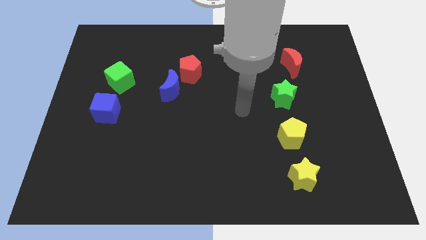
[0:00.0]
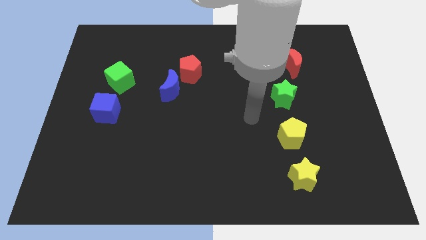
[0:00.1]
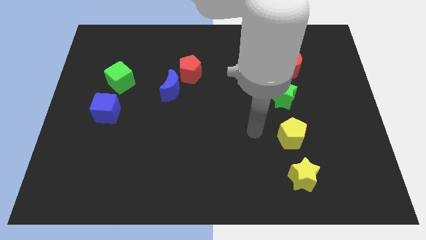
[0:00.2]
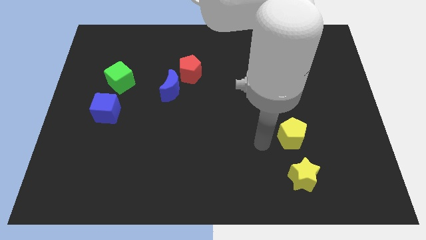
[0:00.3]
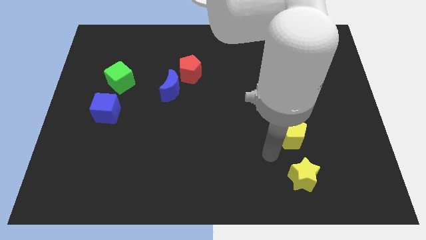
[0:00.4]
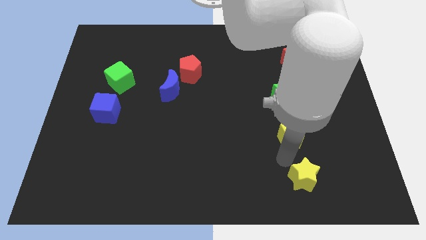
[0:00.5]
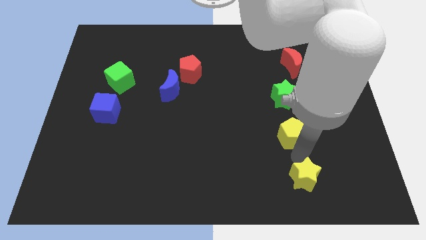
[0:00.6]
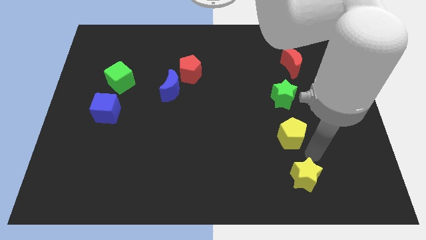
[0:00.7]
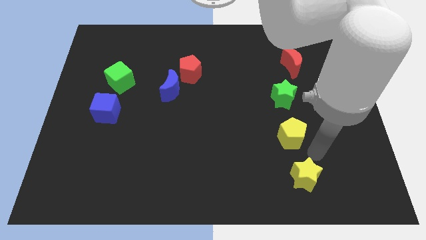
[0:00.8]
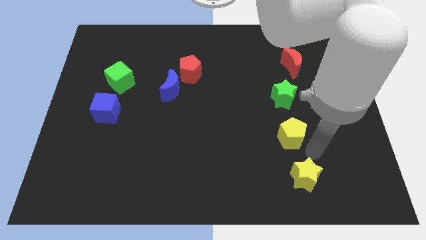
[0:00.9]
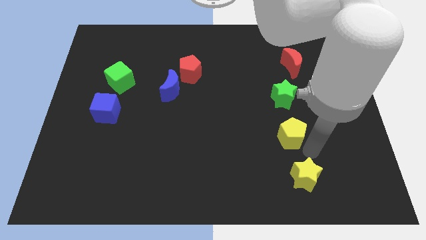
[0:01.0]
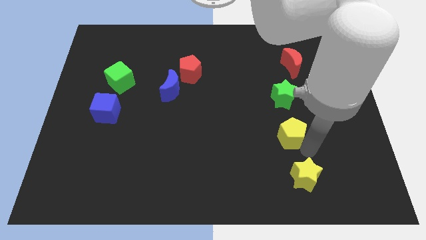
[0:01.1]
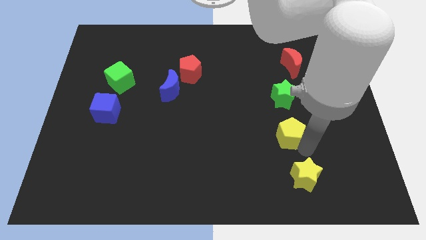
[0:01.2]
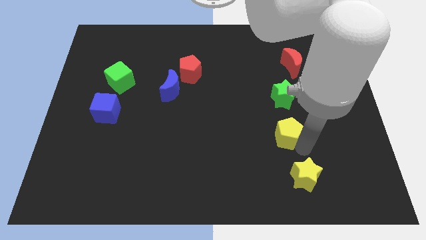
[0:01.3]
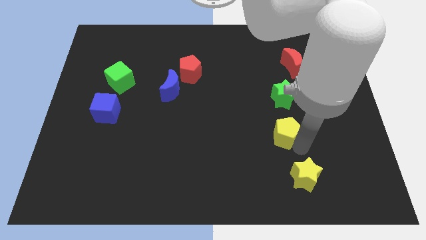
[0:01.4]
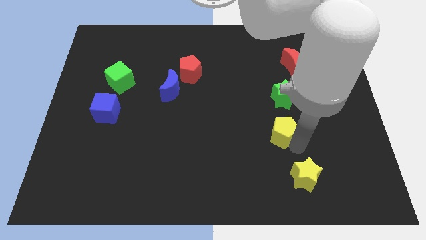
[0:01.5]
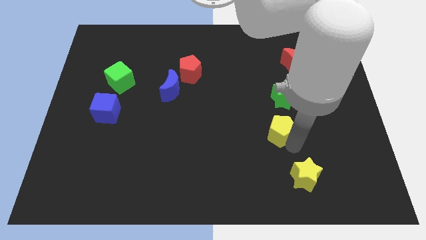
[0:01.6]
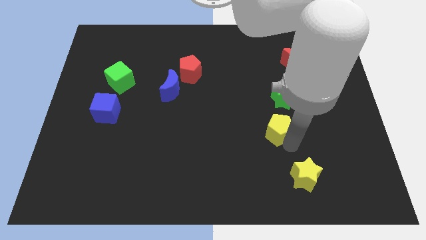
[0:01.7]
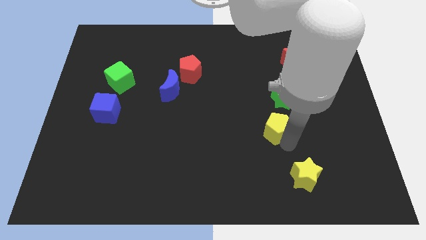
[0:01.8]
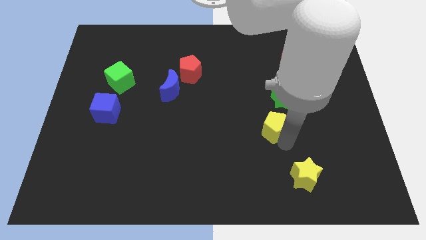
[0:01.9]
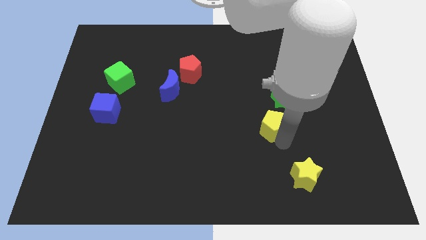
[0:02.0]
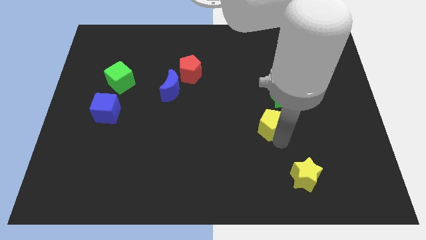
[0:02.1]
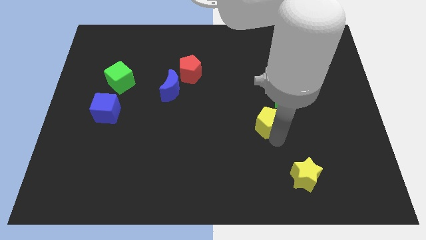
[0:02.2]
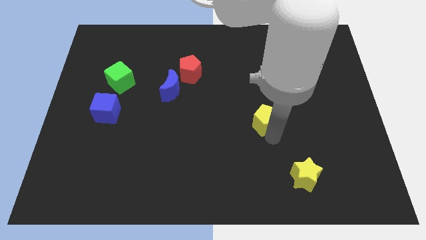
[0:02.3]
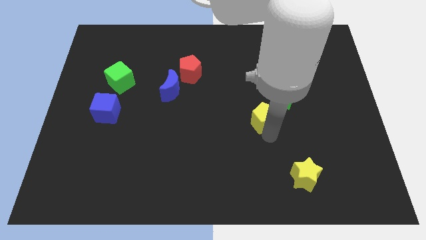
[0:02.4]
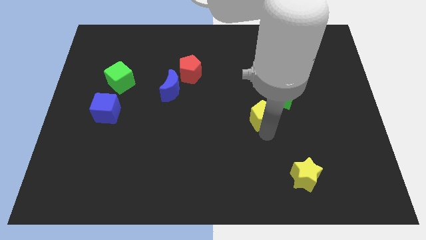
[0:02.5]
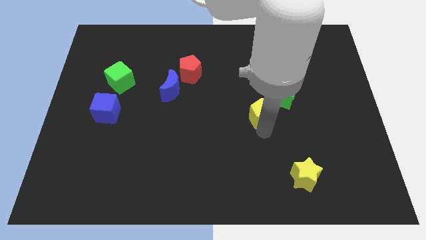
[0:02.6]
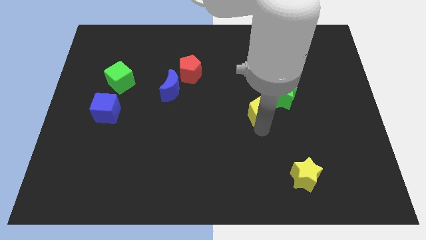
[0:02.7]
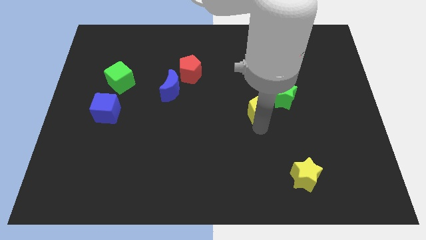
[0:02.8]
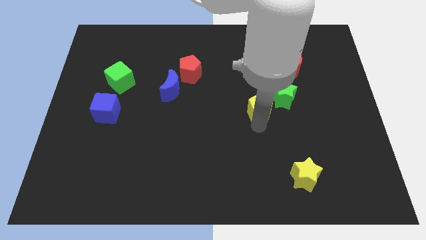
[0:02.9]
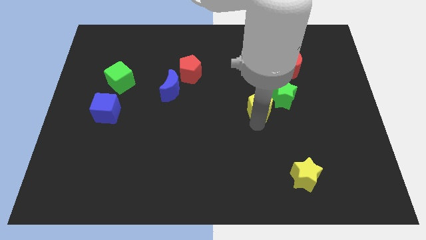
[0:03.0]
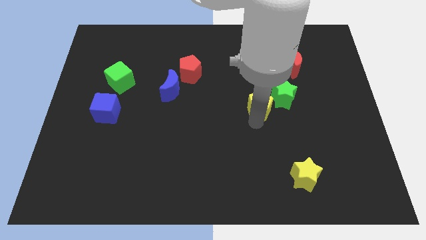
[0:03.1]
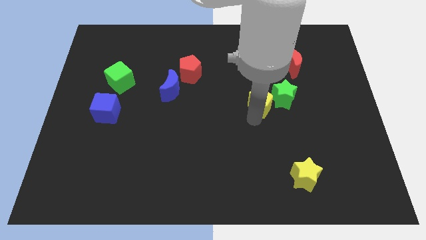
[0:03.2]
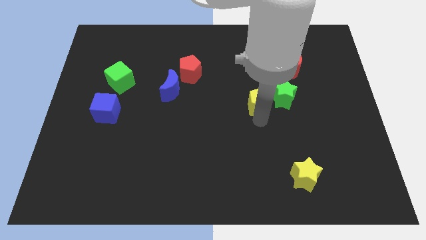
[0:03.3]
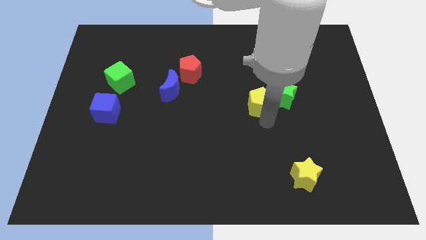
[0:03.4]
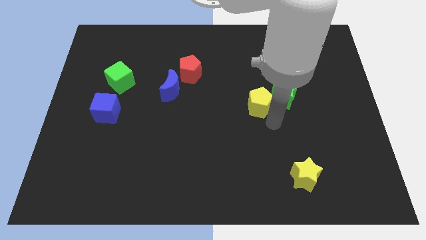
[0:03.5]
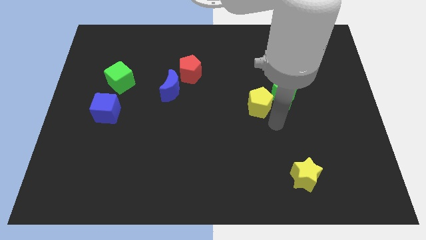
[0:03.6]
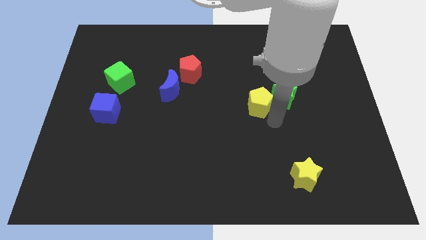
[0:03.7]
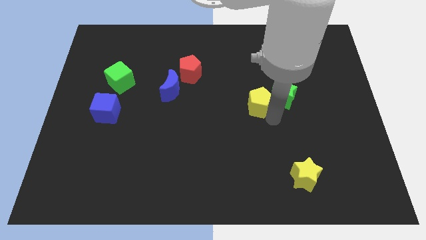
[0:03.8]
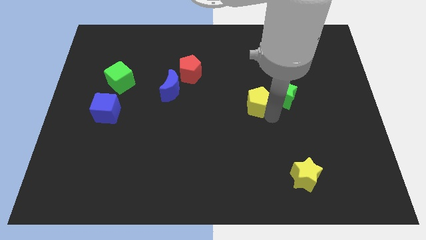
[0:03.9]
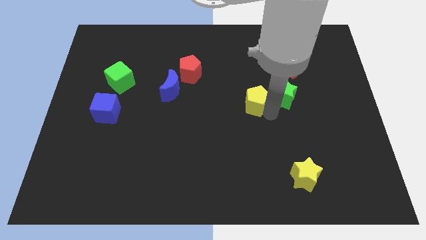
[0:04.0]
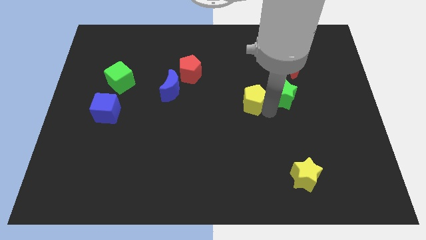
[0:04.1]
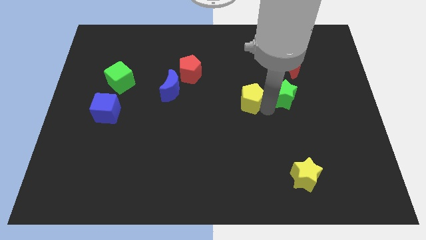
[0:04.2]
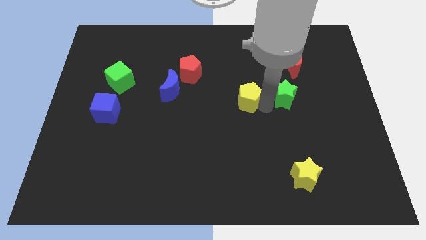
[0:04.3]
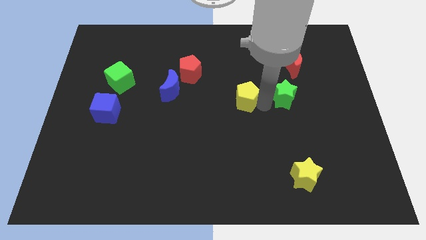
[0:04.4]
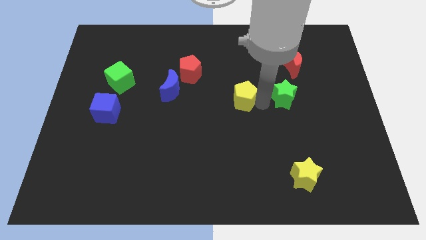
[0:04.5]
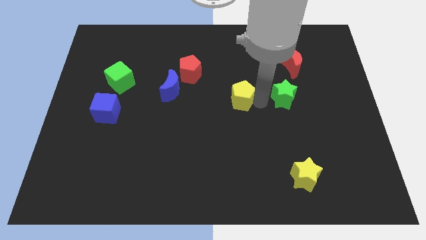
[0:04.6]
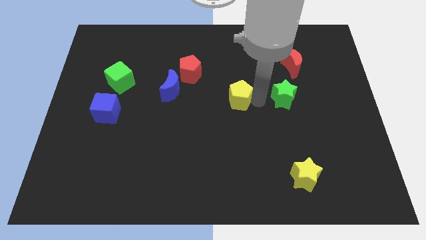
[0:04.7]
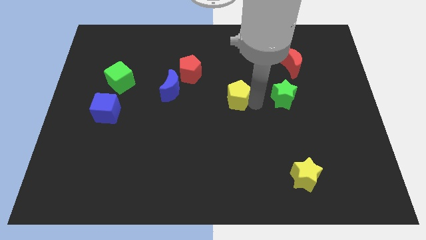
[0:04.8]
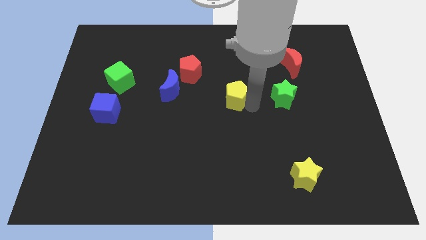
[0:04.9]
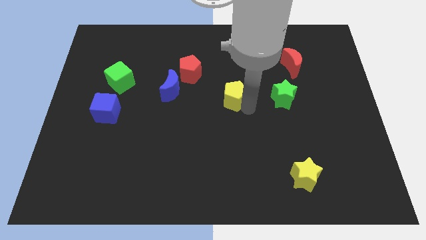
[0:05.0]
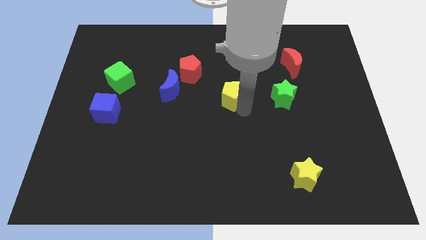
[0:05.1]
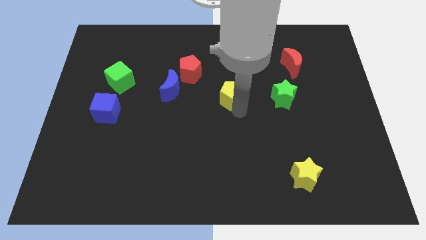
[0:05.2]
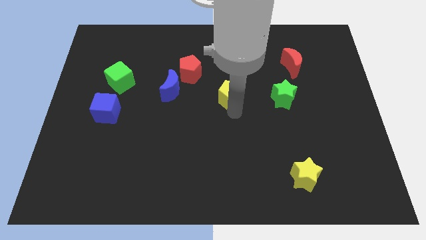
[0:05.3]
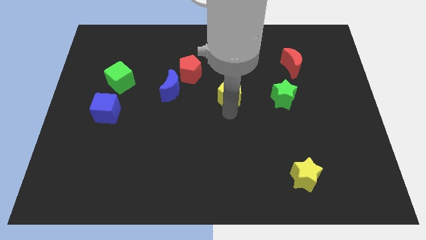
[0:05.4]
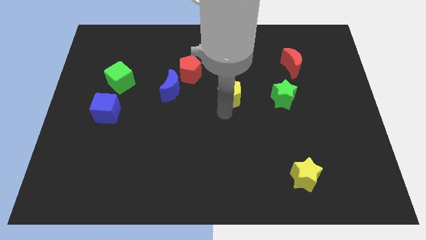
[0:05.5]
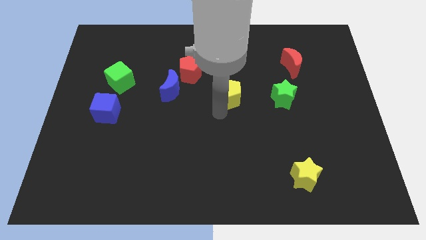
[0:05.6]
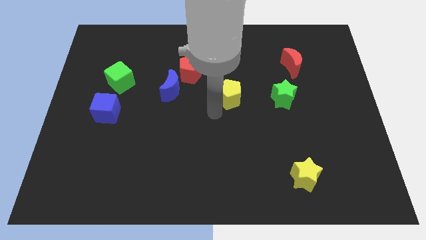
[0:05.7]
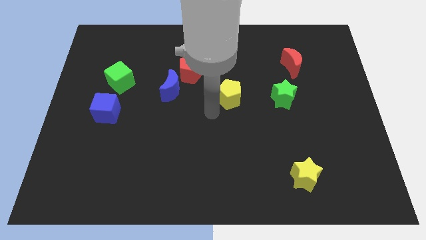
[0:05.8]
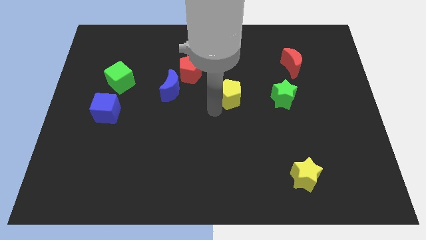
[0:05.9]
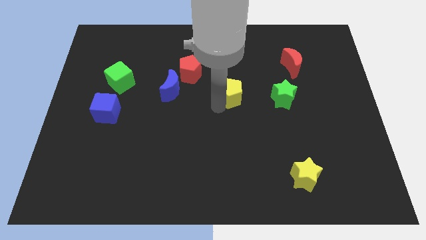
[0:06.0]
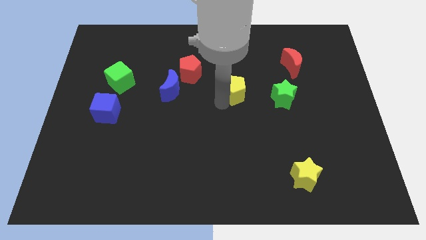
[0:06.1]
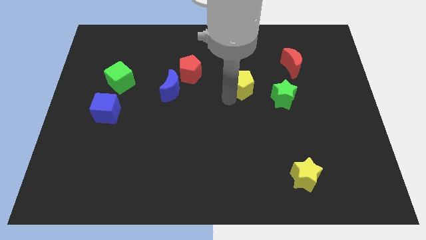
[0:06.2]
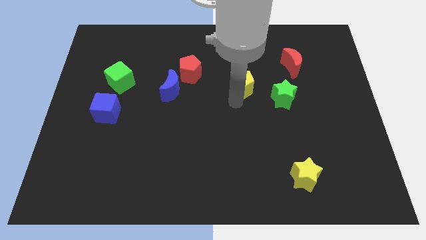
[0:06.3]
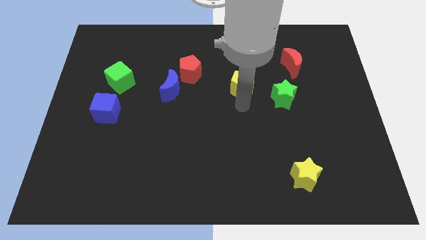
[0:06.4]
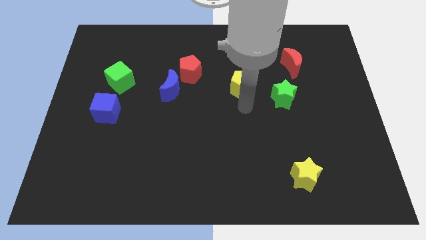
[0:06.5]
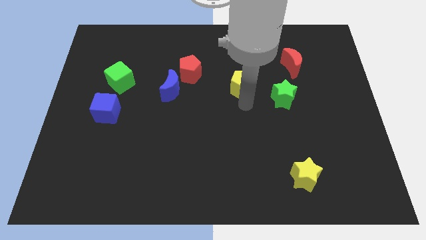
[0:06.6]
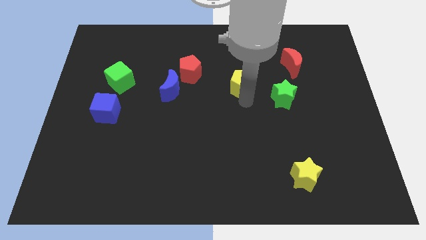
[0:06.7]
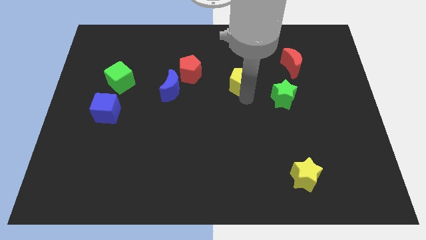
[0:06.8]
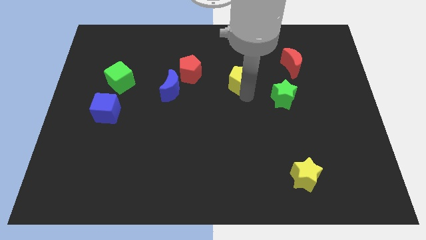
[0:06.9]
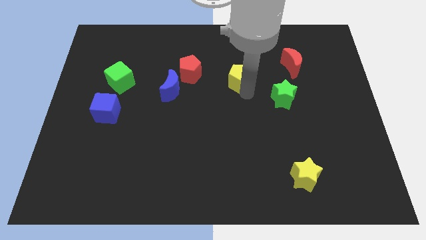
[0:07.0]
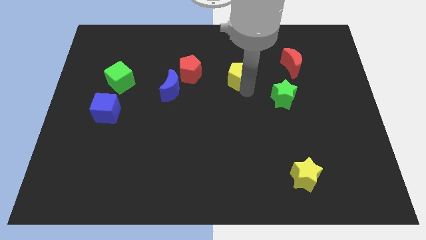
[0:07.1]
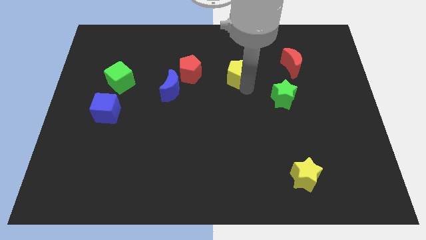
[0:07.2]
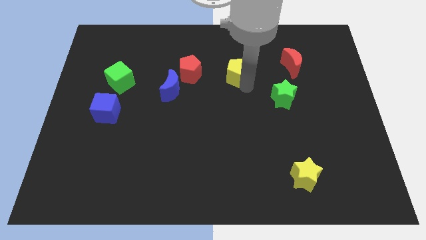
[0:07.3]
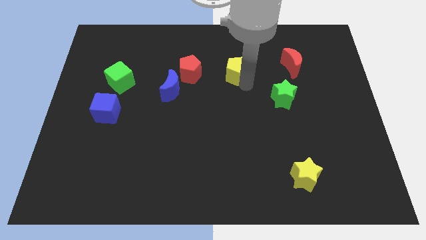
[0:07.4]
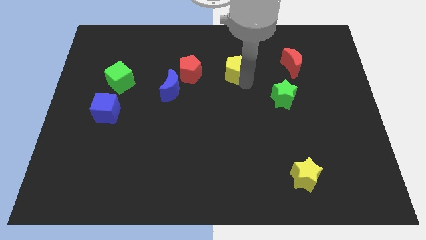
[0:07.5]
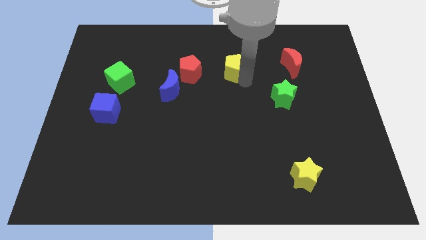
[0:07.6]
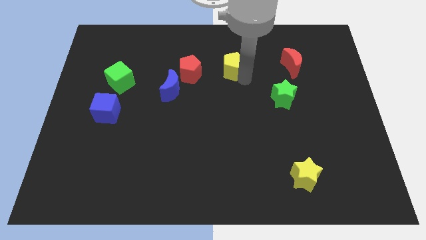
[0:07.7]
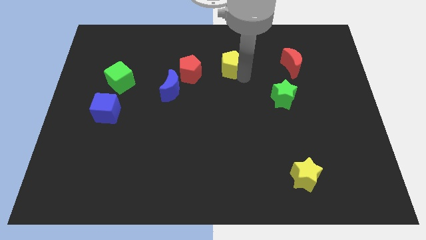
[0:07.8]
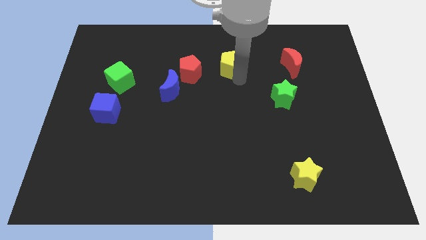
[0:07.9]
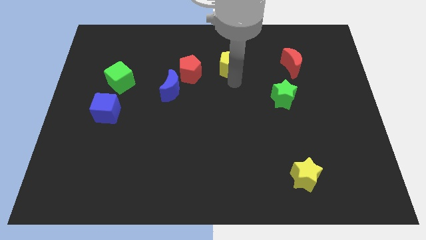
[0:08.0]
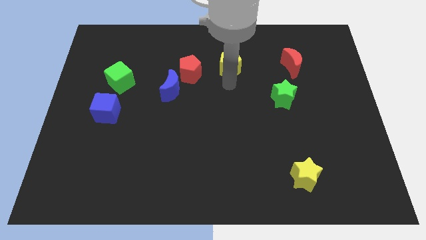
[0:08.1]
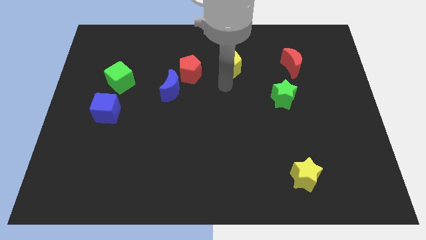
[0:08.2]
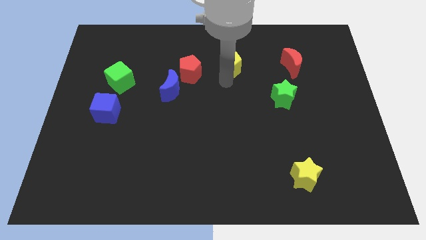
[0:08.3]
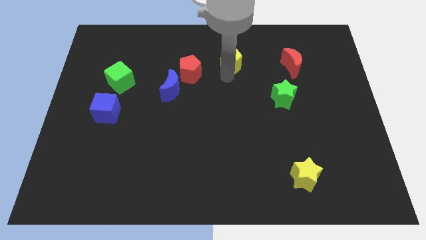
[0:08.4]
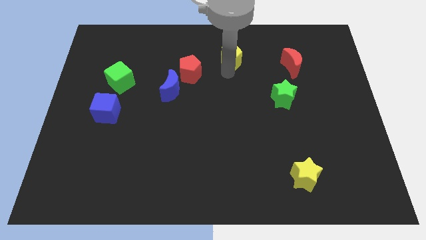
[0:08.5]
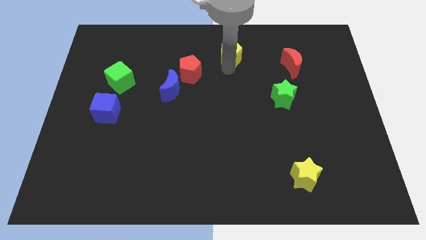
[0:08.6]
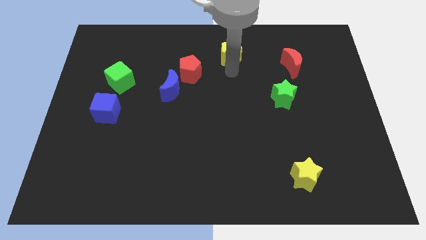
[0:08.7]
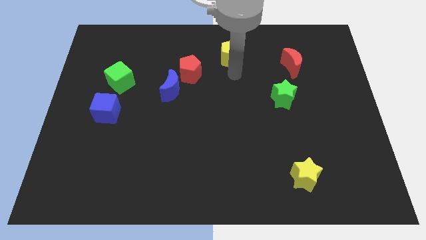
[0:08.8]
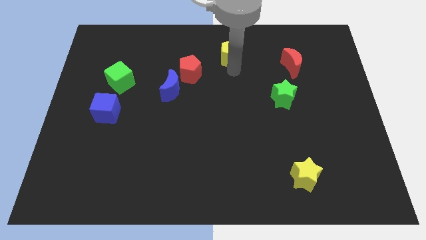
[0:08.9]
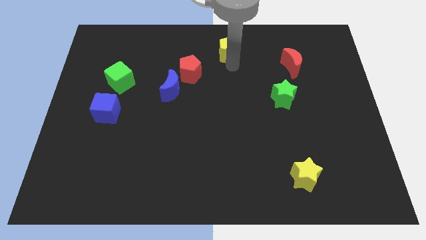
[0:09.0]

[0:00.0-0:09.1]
push the yellow pentagon to the top
